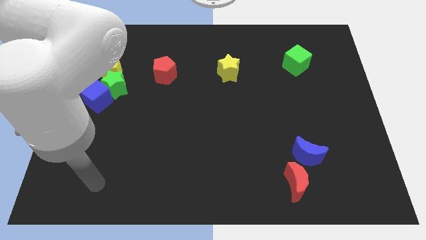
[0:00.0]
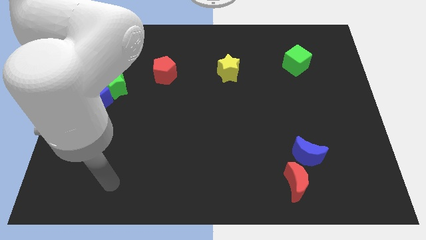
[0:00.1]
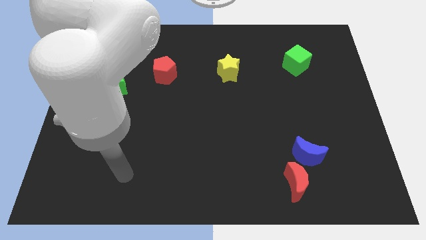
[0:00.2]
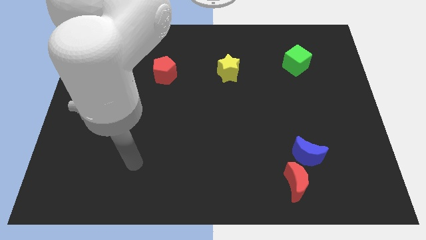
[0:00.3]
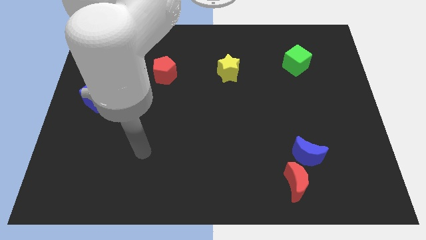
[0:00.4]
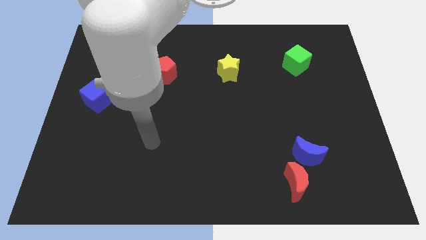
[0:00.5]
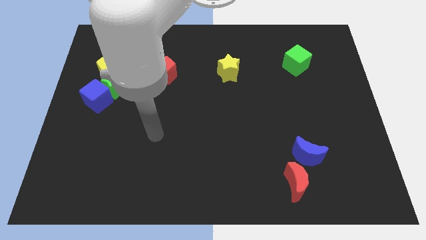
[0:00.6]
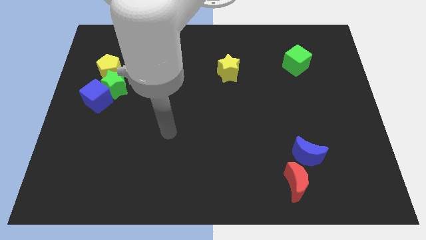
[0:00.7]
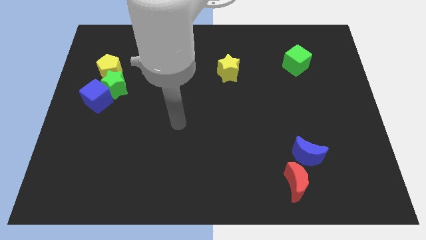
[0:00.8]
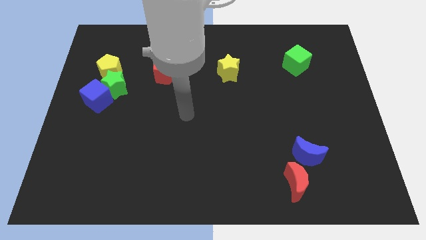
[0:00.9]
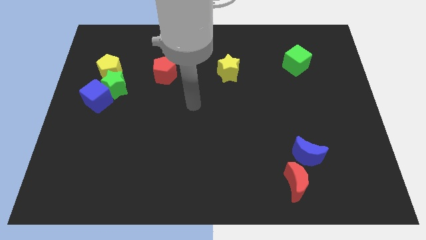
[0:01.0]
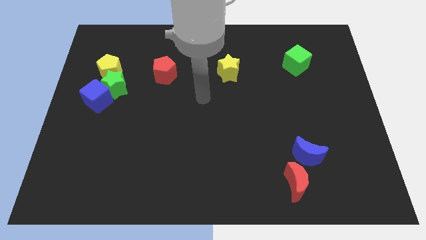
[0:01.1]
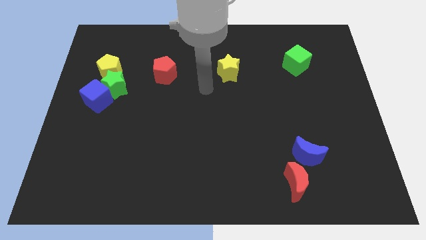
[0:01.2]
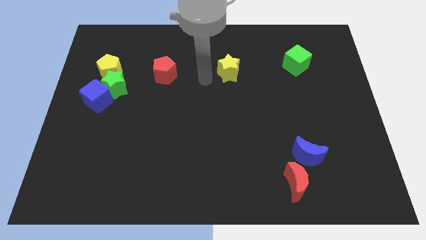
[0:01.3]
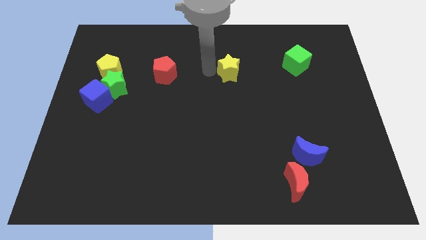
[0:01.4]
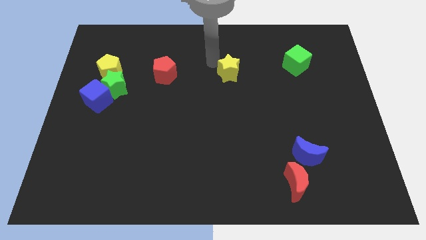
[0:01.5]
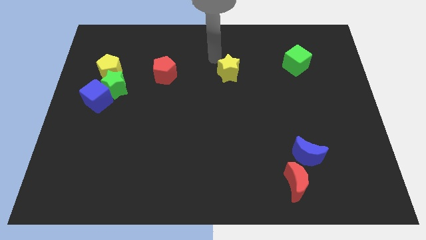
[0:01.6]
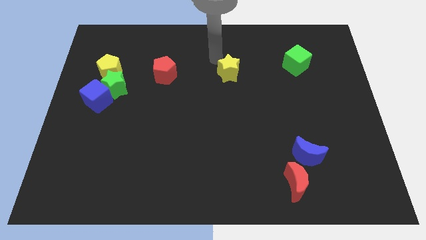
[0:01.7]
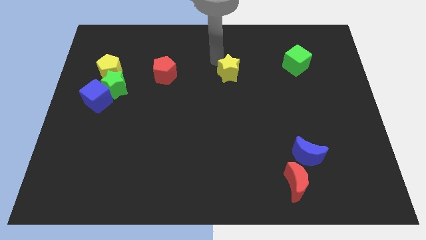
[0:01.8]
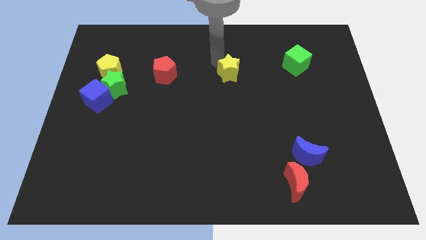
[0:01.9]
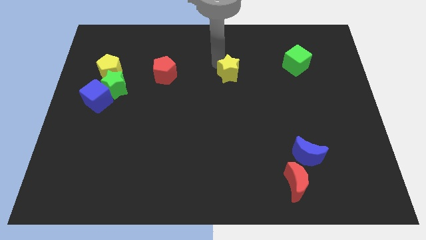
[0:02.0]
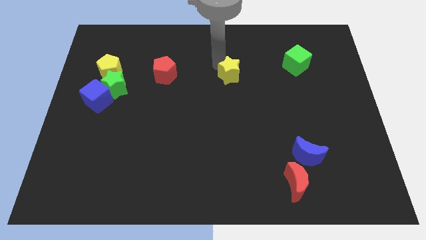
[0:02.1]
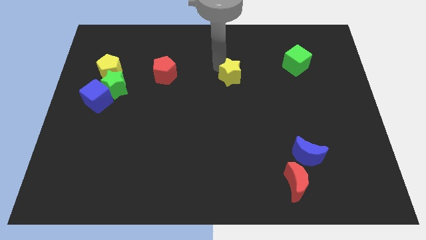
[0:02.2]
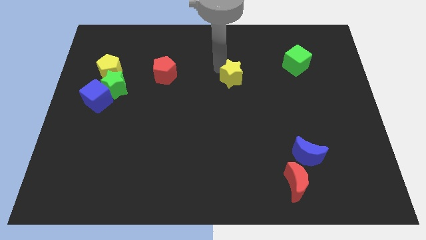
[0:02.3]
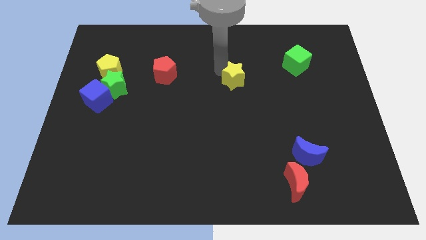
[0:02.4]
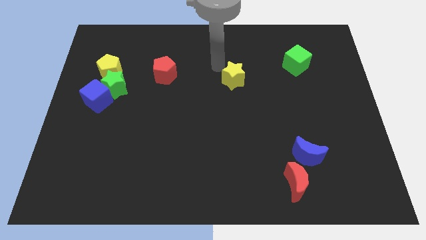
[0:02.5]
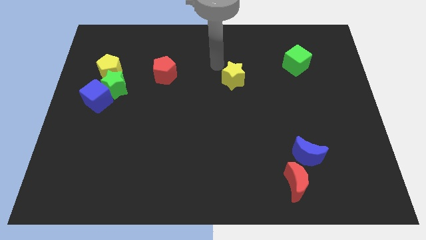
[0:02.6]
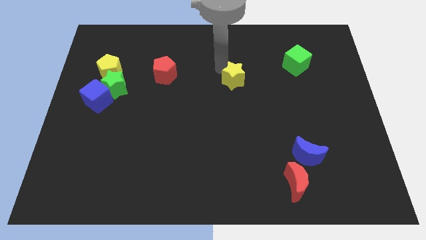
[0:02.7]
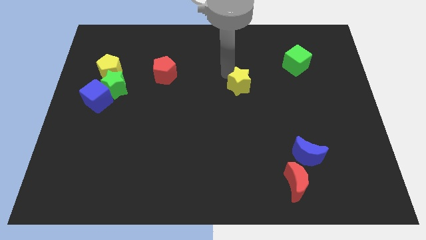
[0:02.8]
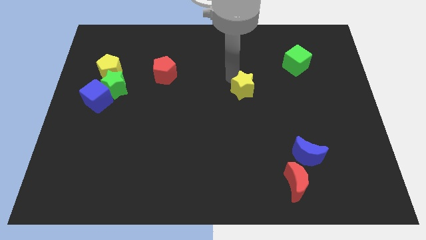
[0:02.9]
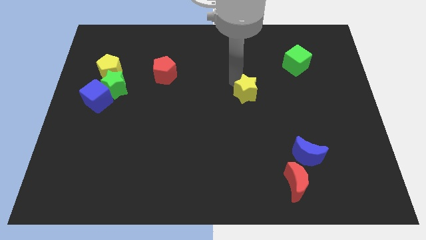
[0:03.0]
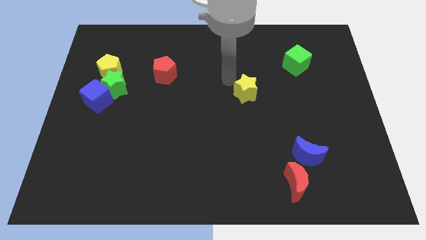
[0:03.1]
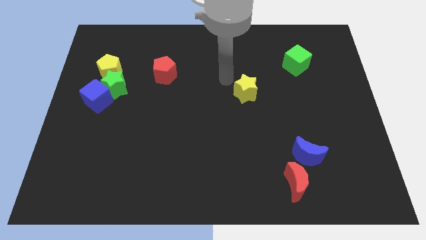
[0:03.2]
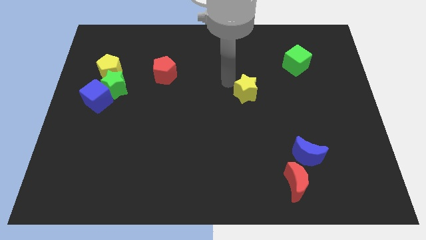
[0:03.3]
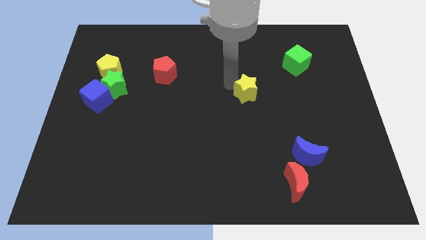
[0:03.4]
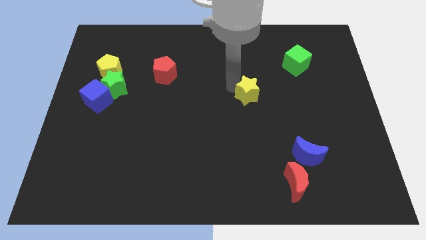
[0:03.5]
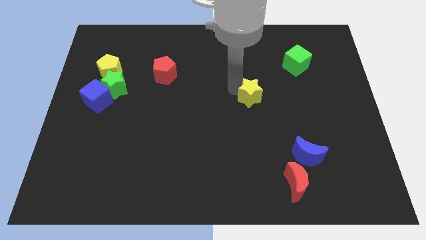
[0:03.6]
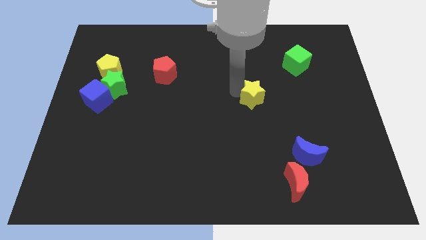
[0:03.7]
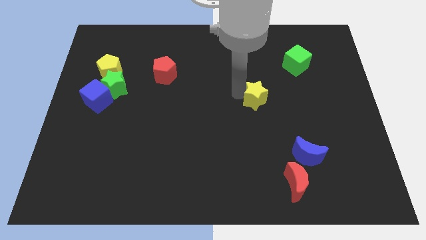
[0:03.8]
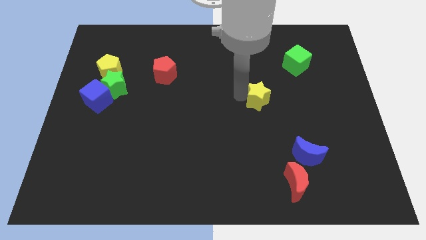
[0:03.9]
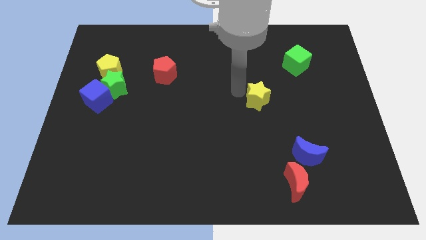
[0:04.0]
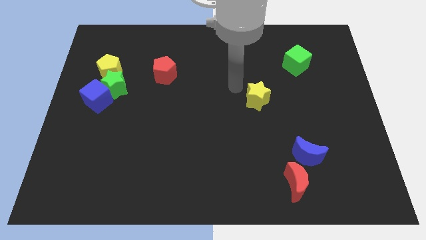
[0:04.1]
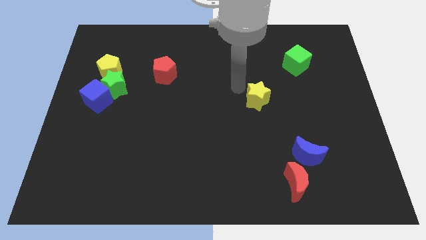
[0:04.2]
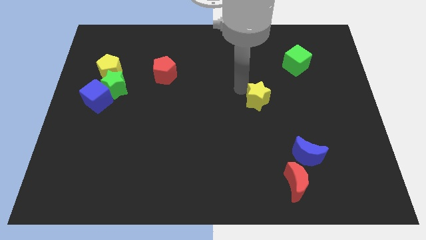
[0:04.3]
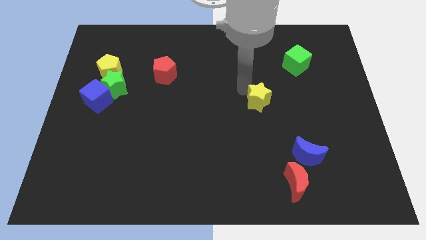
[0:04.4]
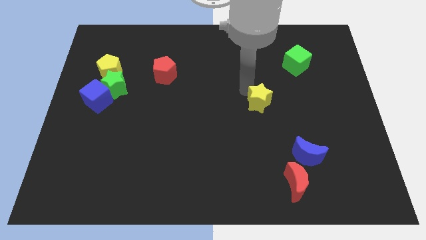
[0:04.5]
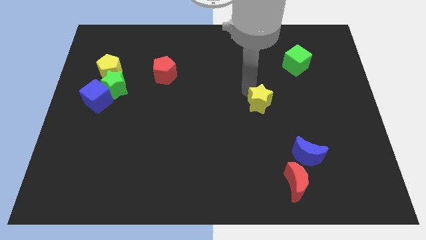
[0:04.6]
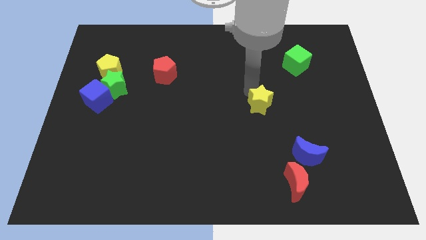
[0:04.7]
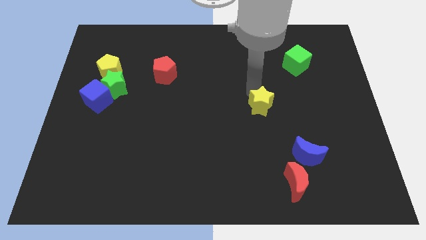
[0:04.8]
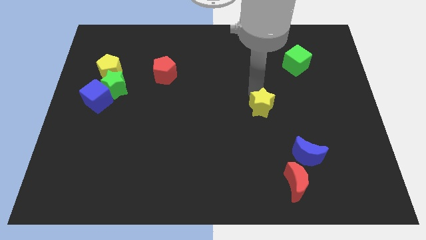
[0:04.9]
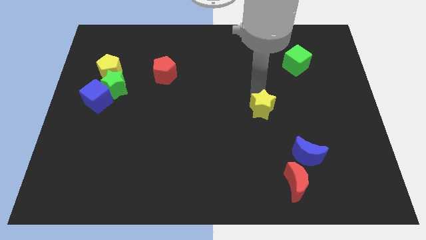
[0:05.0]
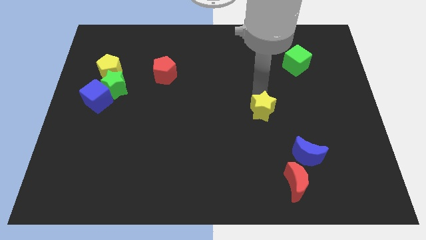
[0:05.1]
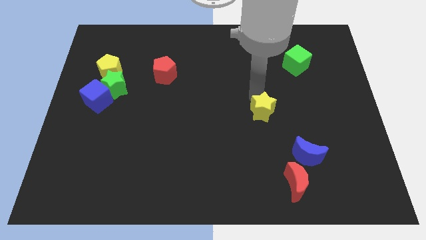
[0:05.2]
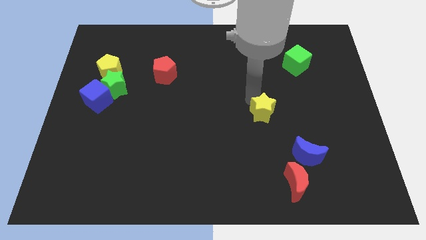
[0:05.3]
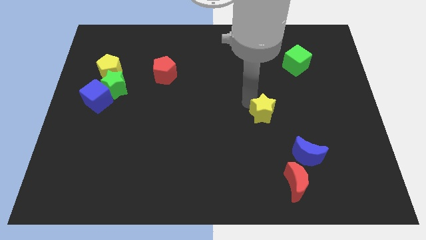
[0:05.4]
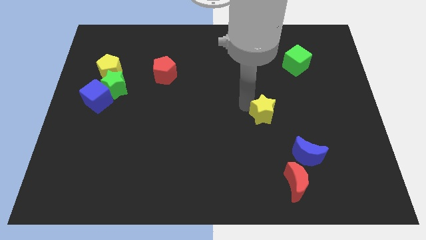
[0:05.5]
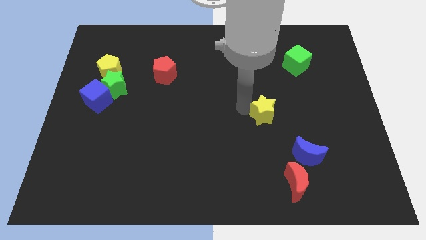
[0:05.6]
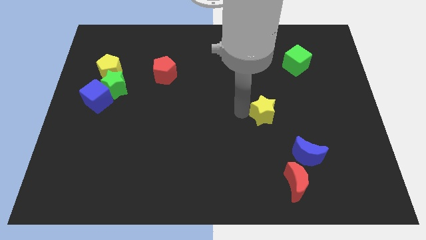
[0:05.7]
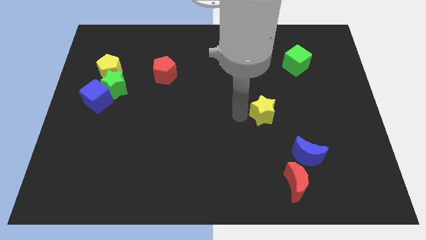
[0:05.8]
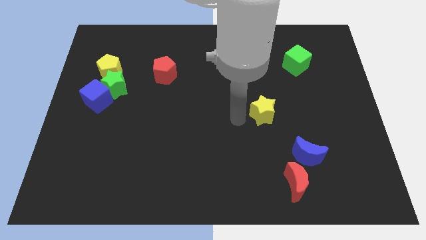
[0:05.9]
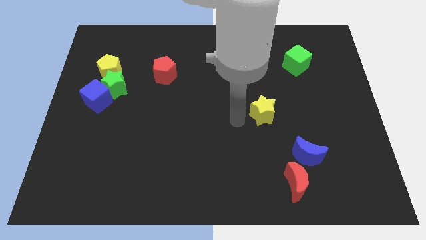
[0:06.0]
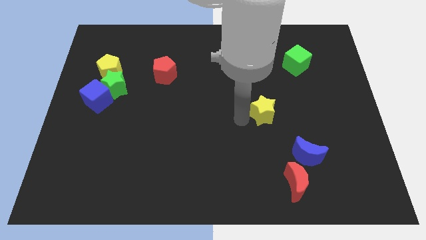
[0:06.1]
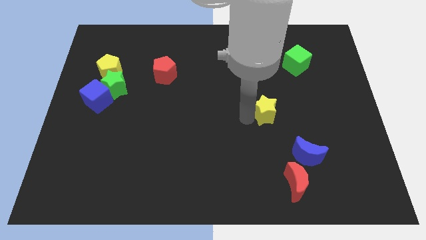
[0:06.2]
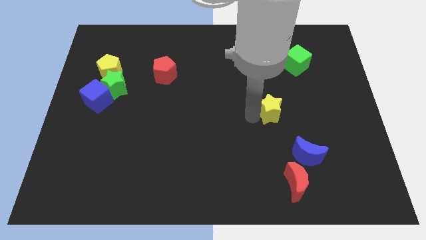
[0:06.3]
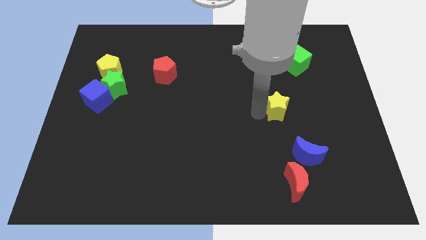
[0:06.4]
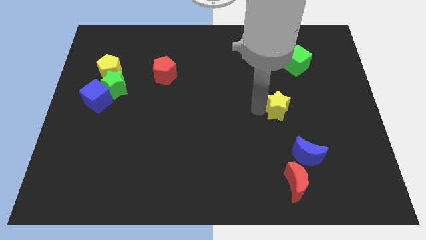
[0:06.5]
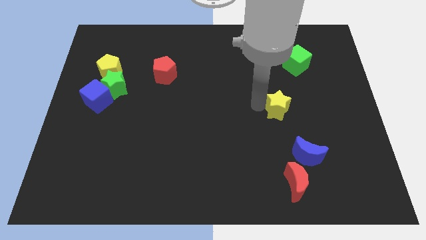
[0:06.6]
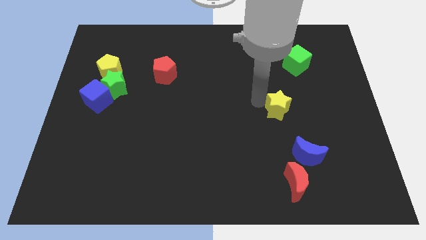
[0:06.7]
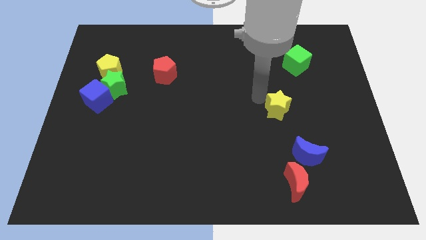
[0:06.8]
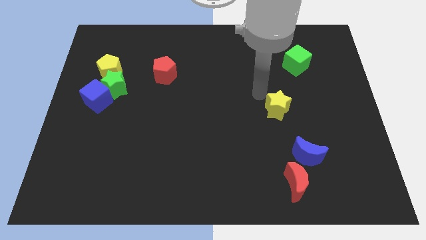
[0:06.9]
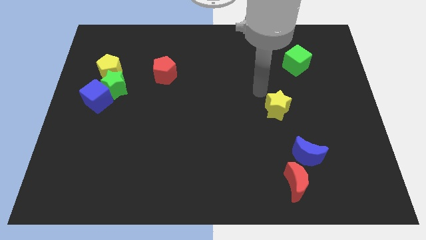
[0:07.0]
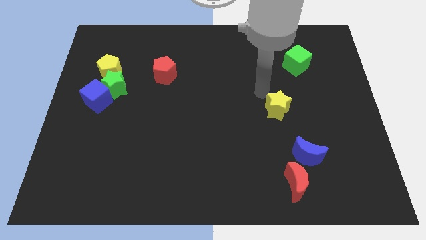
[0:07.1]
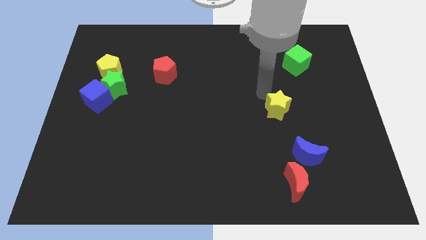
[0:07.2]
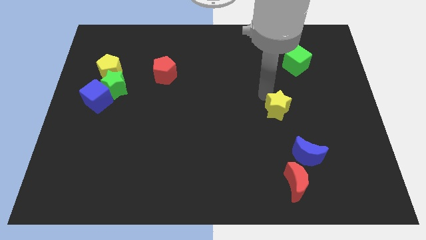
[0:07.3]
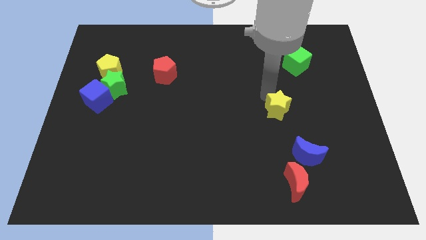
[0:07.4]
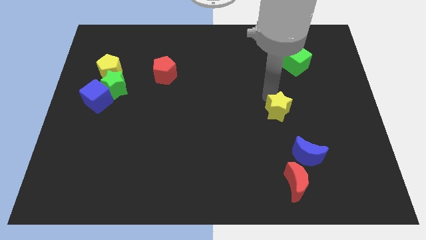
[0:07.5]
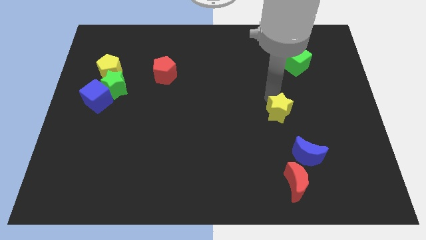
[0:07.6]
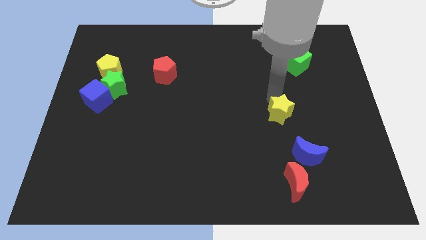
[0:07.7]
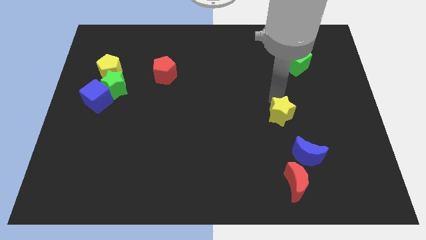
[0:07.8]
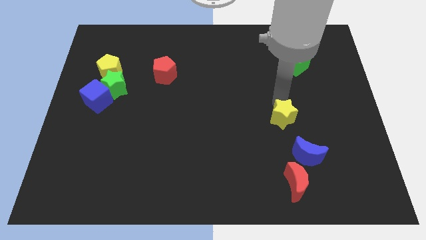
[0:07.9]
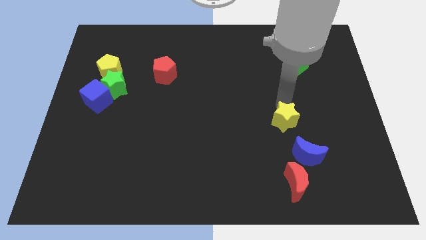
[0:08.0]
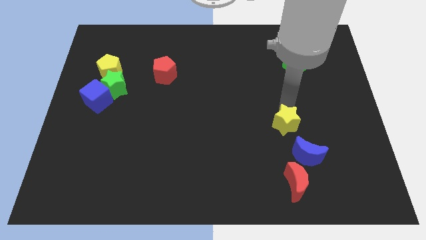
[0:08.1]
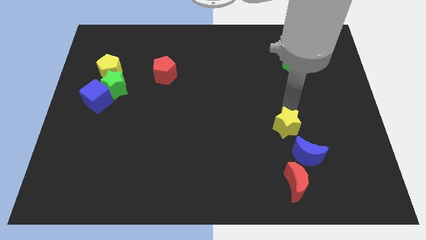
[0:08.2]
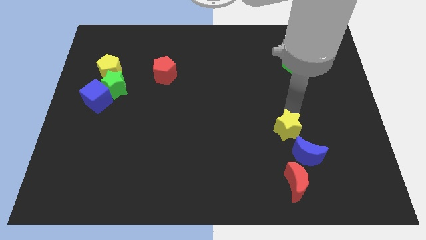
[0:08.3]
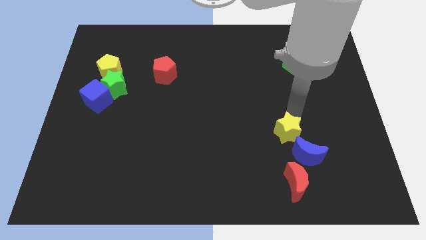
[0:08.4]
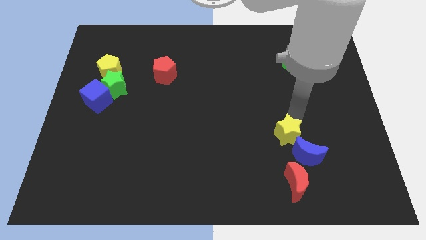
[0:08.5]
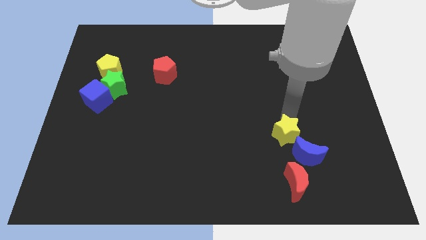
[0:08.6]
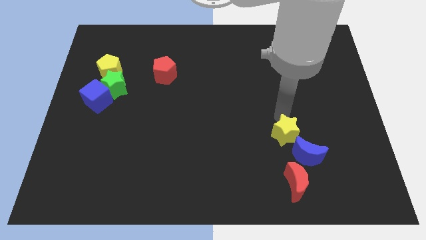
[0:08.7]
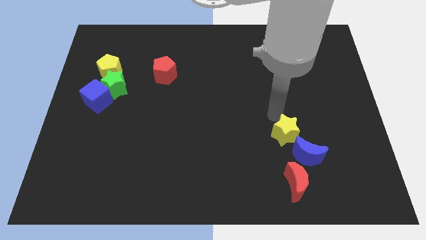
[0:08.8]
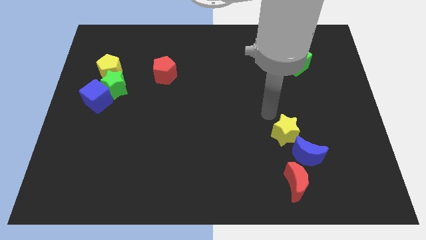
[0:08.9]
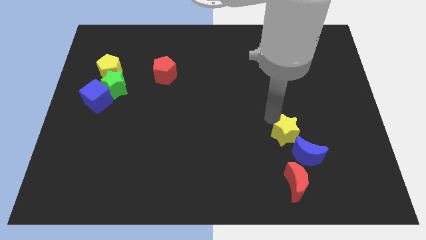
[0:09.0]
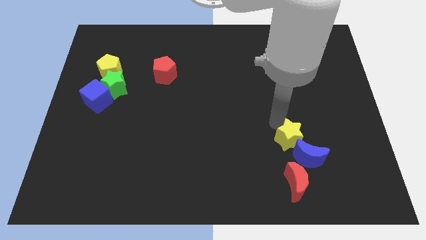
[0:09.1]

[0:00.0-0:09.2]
move the yellow star next to the blue moon
